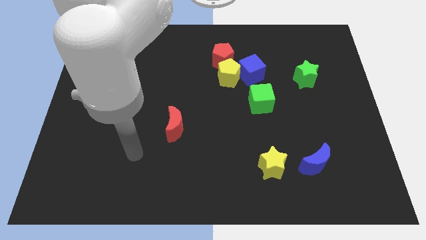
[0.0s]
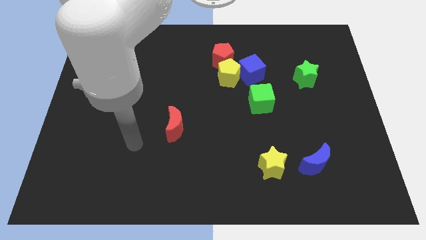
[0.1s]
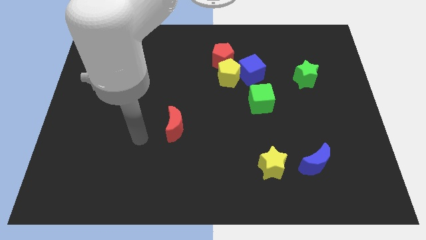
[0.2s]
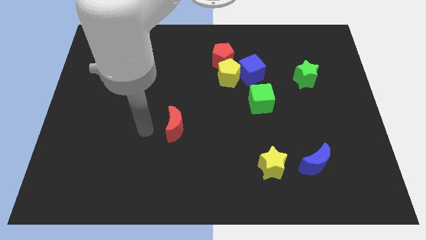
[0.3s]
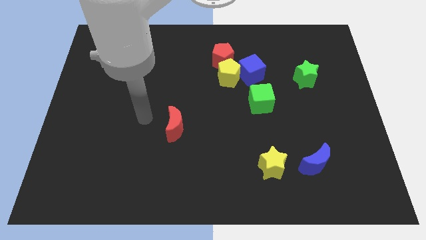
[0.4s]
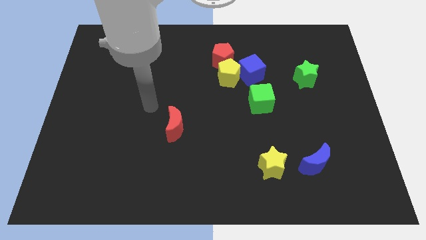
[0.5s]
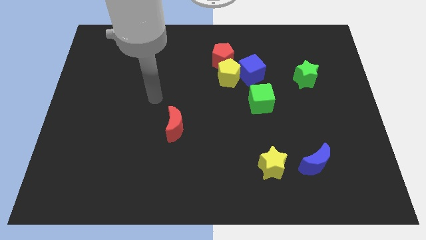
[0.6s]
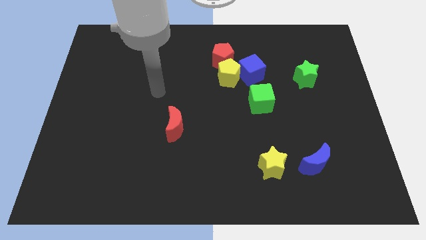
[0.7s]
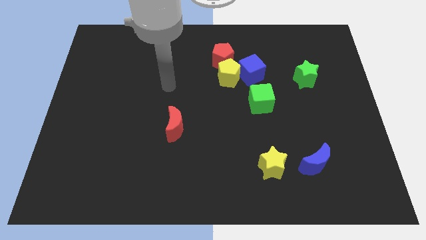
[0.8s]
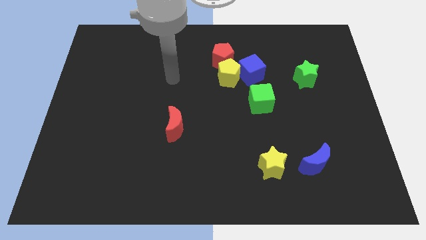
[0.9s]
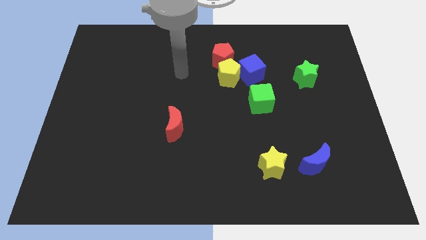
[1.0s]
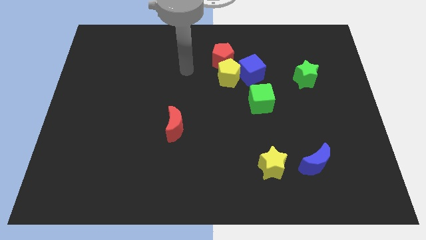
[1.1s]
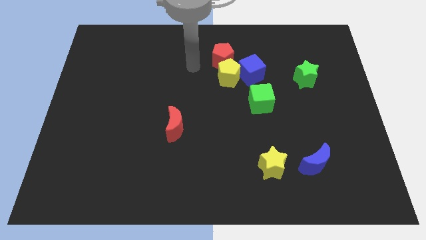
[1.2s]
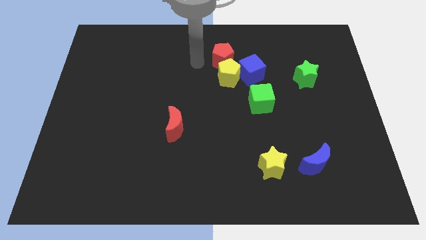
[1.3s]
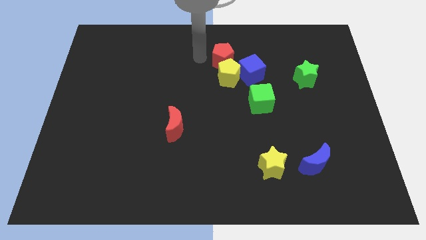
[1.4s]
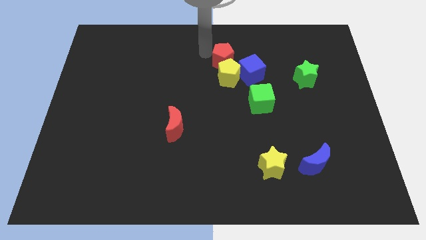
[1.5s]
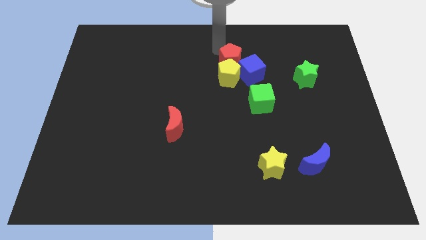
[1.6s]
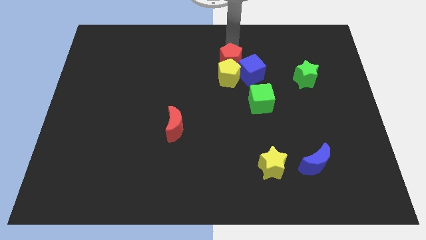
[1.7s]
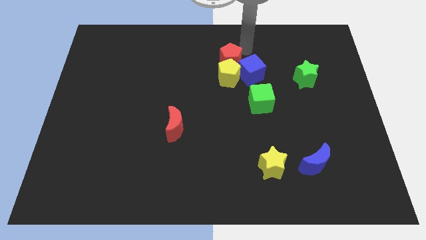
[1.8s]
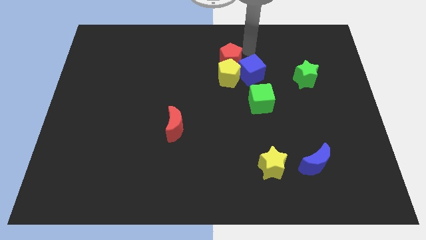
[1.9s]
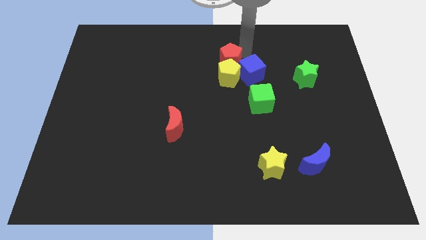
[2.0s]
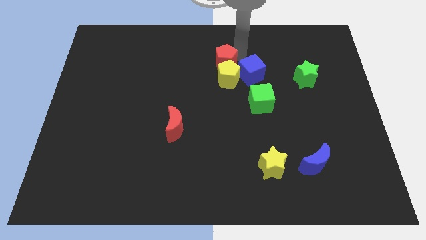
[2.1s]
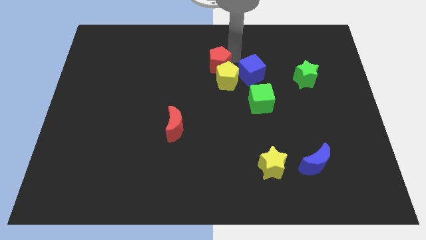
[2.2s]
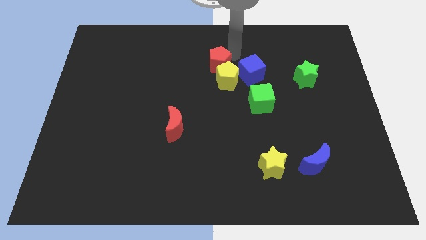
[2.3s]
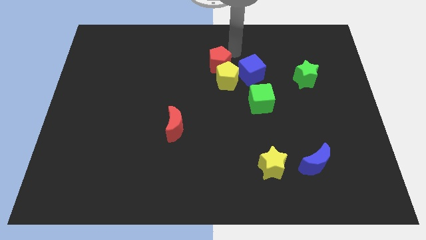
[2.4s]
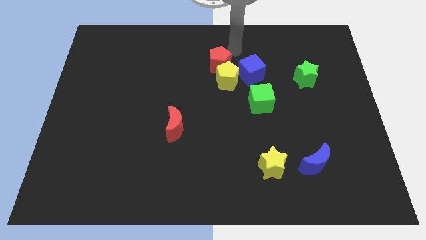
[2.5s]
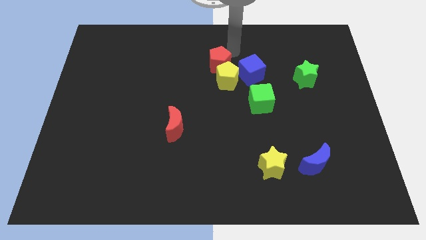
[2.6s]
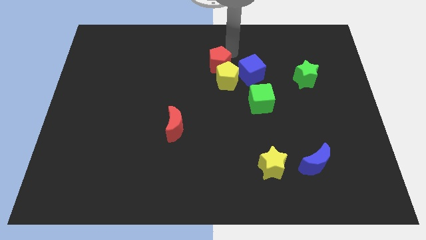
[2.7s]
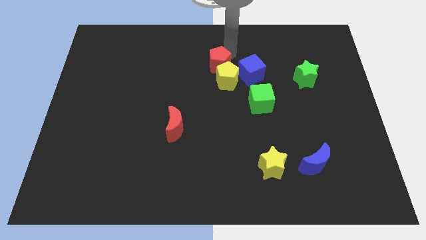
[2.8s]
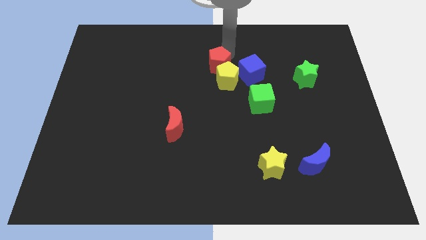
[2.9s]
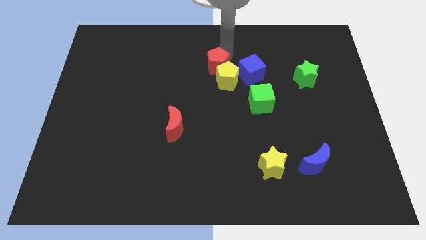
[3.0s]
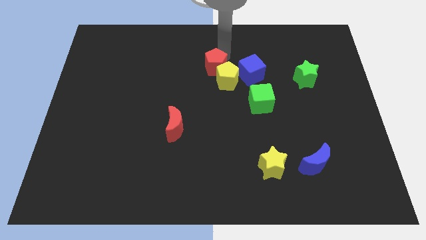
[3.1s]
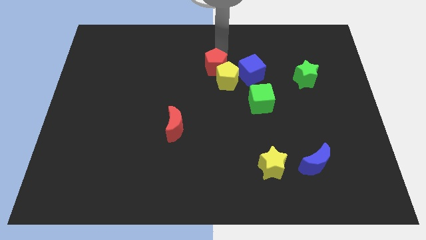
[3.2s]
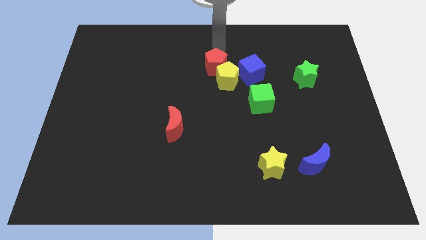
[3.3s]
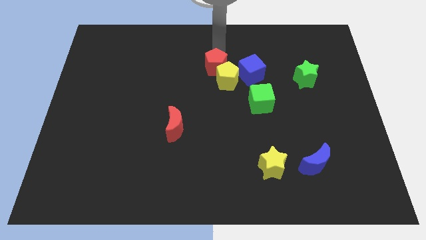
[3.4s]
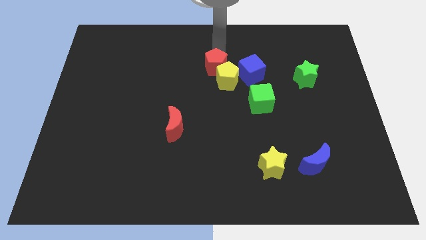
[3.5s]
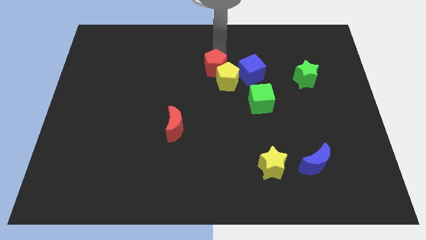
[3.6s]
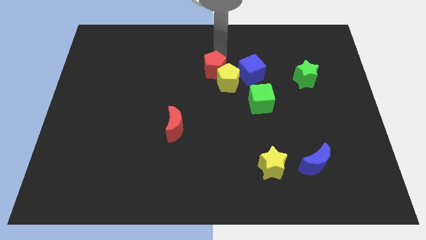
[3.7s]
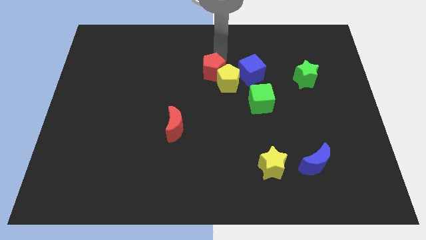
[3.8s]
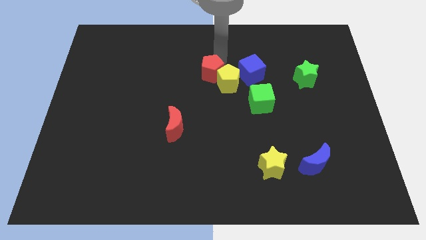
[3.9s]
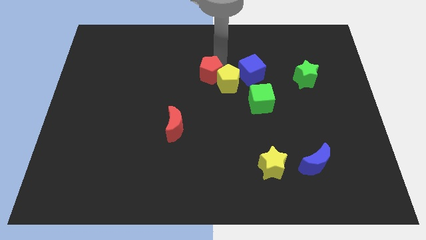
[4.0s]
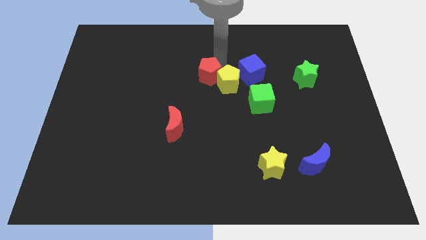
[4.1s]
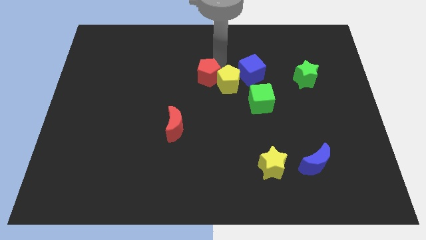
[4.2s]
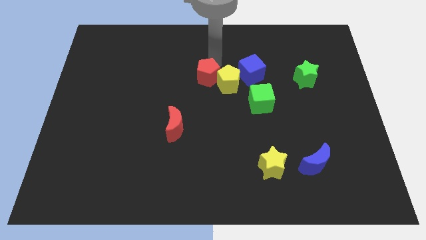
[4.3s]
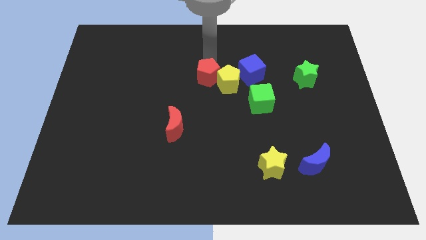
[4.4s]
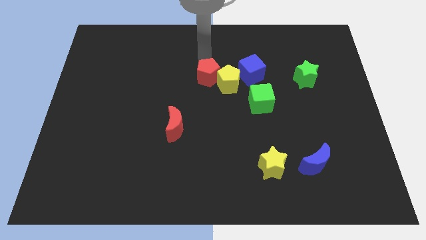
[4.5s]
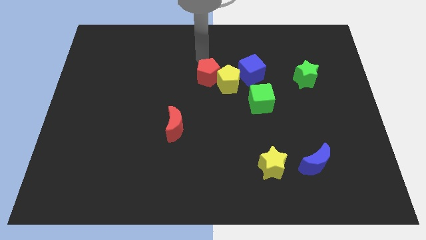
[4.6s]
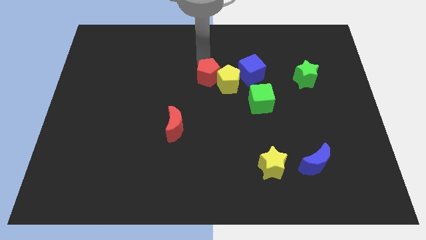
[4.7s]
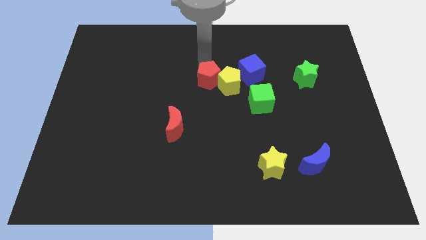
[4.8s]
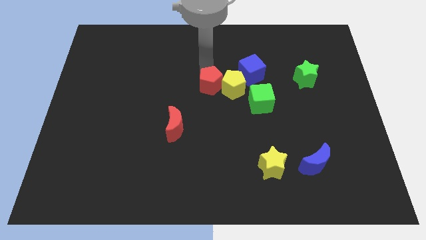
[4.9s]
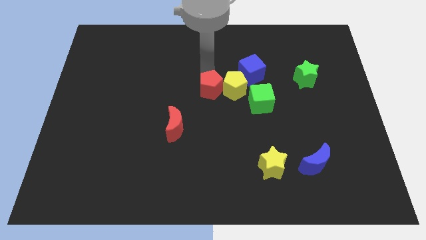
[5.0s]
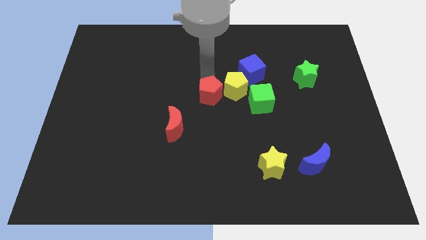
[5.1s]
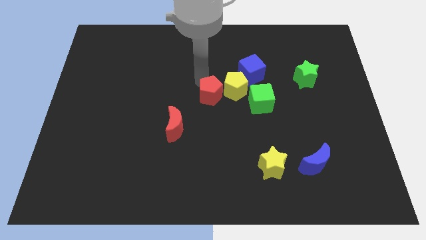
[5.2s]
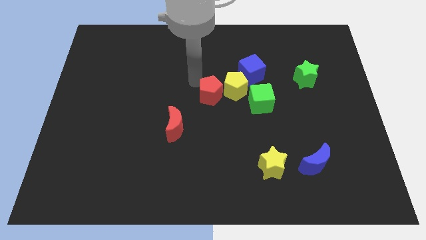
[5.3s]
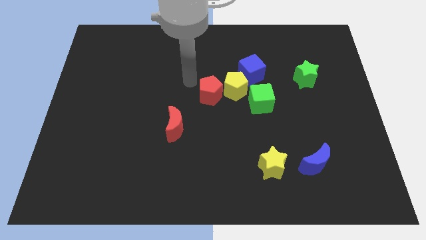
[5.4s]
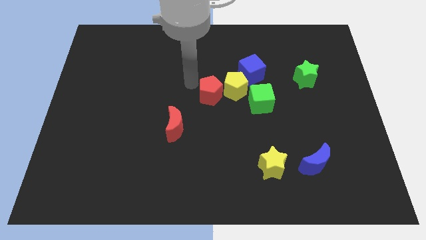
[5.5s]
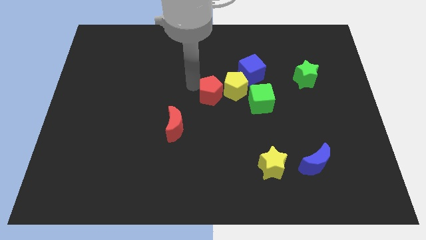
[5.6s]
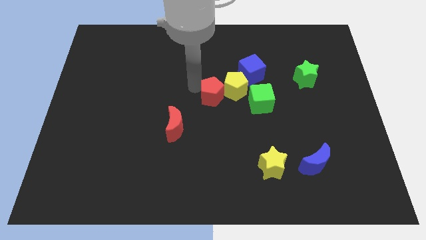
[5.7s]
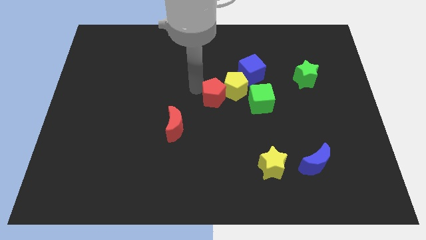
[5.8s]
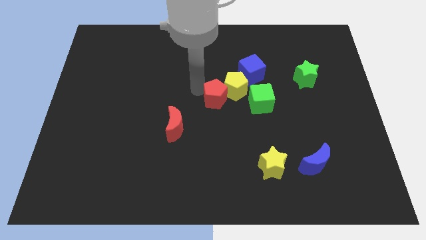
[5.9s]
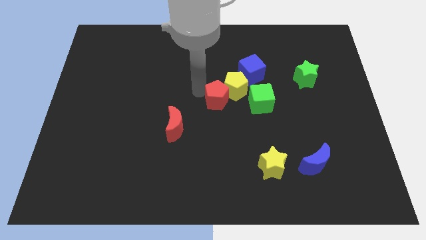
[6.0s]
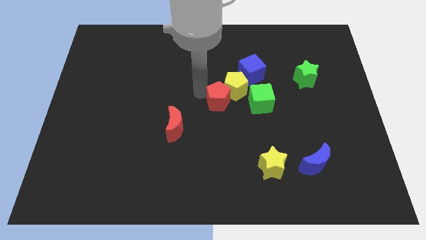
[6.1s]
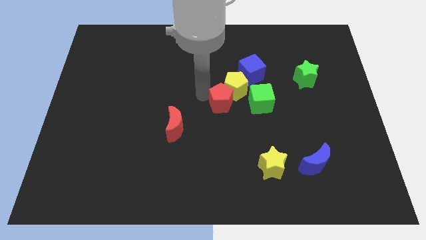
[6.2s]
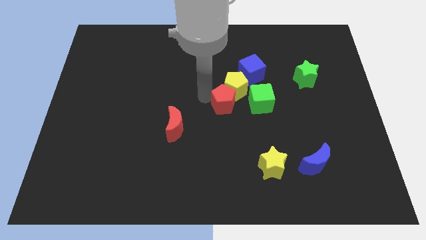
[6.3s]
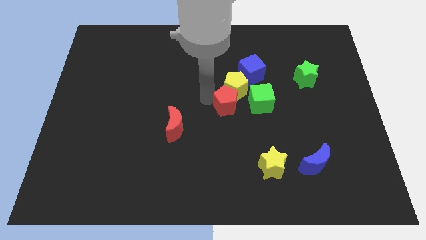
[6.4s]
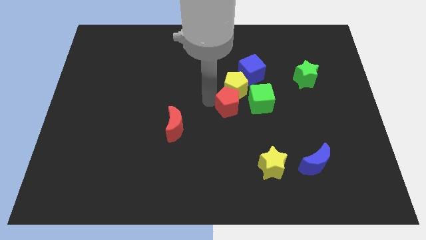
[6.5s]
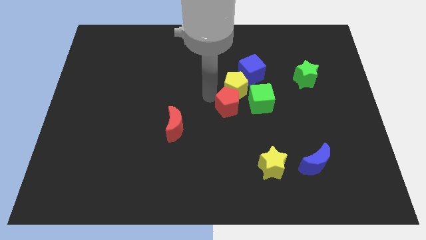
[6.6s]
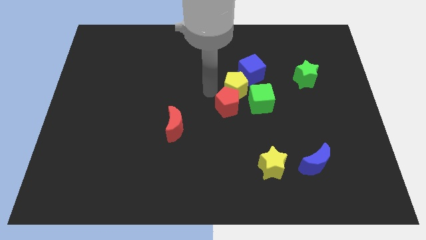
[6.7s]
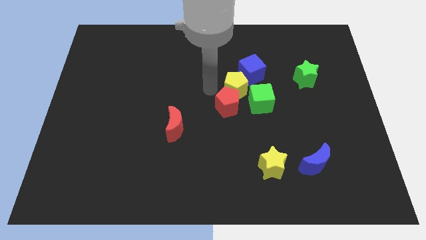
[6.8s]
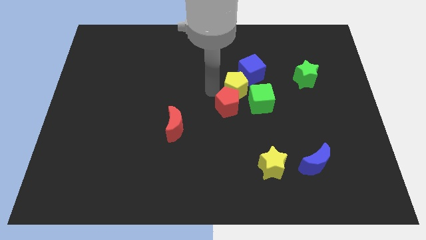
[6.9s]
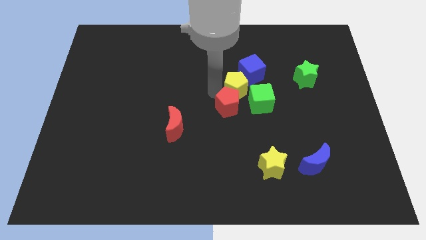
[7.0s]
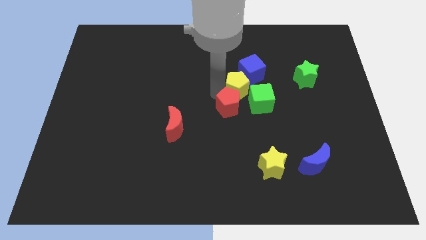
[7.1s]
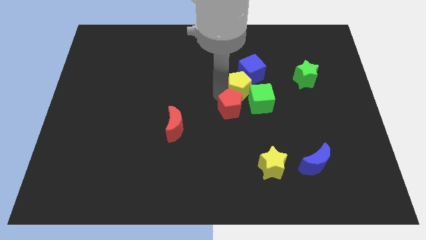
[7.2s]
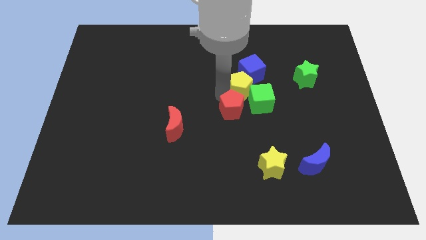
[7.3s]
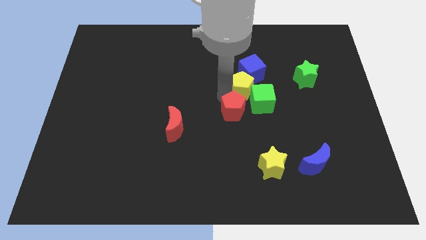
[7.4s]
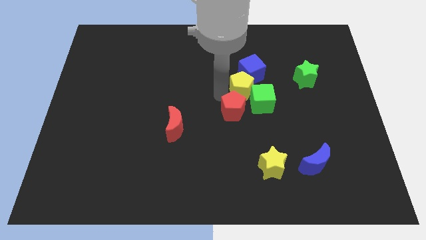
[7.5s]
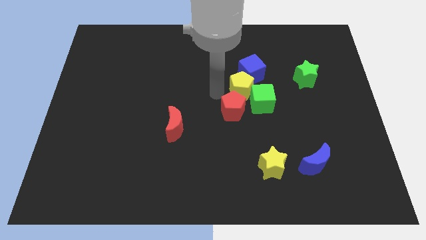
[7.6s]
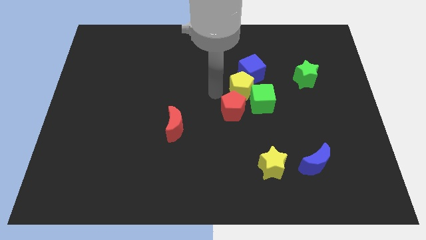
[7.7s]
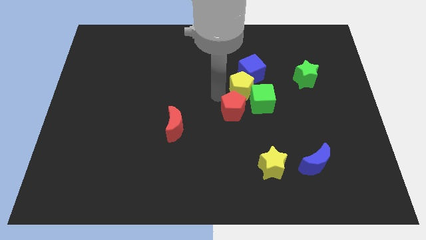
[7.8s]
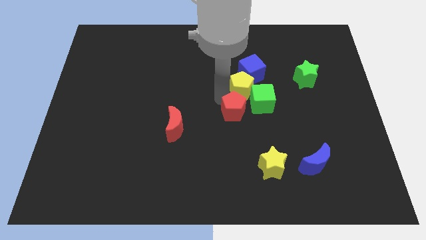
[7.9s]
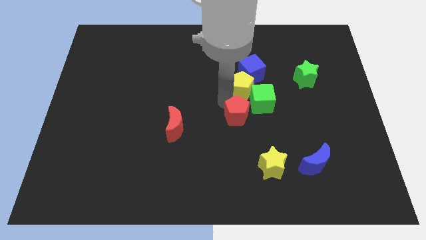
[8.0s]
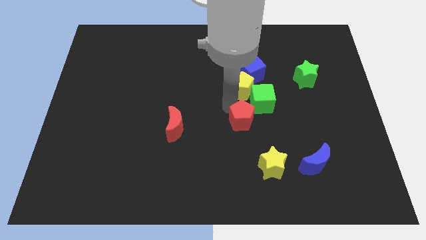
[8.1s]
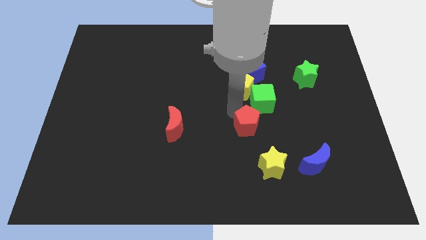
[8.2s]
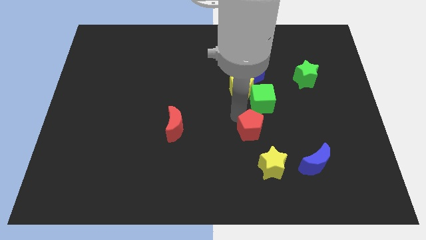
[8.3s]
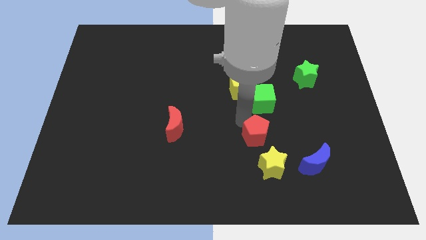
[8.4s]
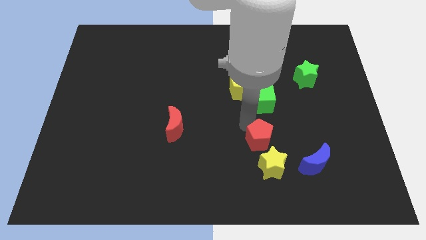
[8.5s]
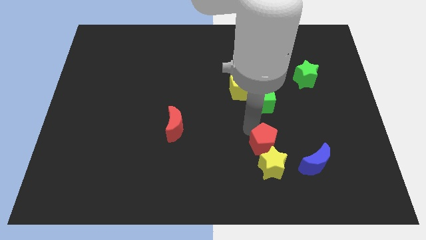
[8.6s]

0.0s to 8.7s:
push the red pentagon towards the yellow star
